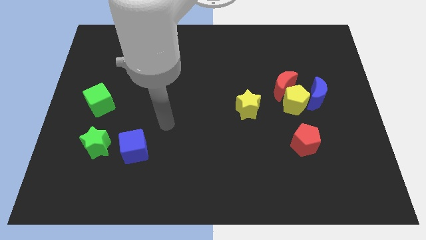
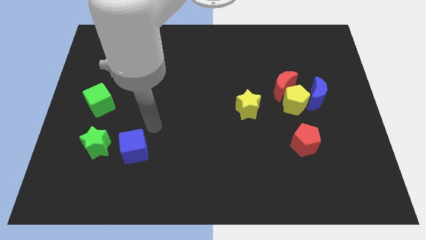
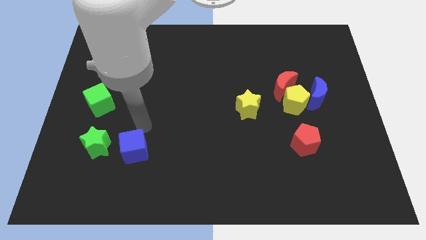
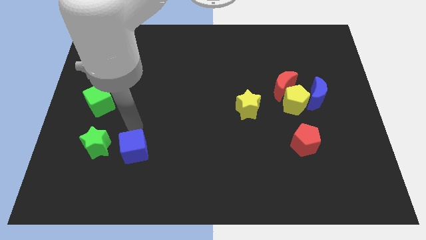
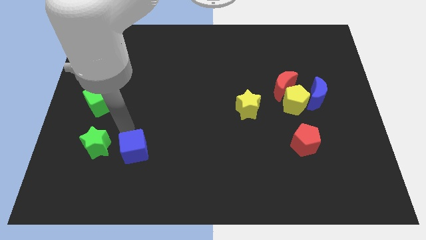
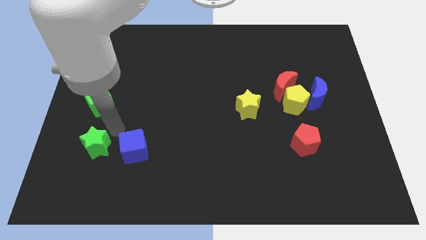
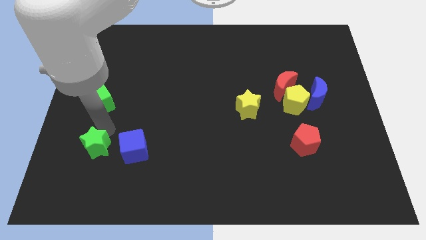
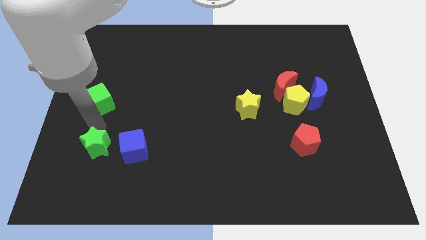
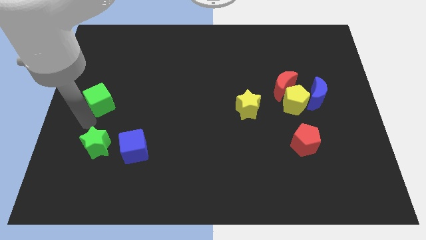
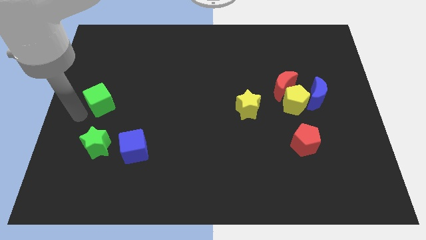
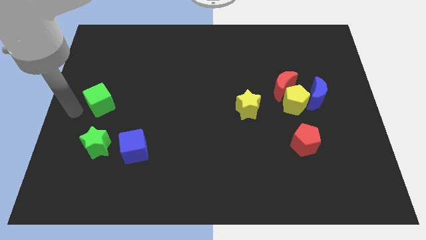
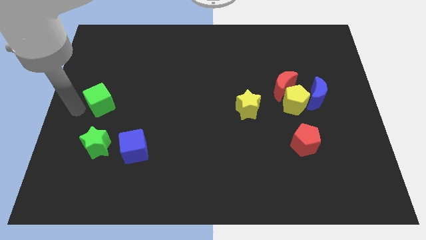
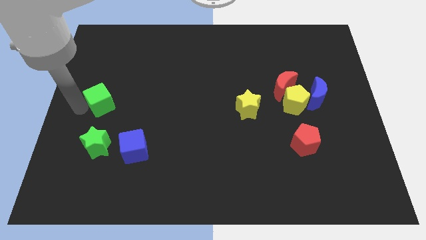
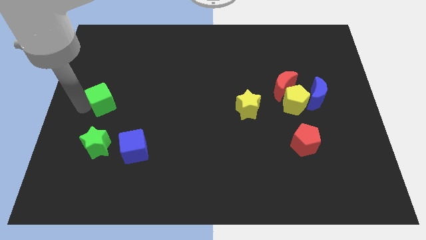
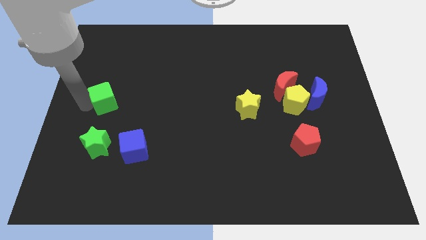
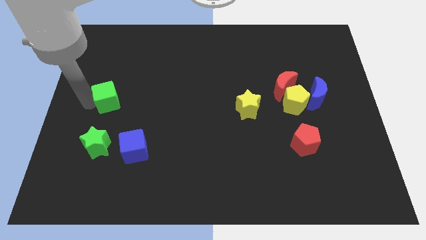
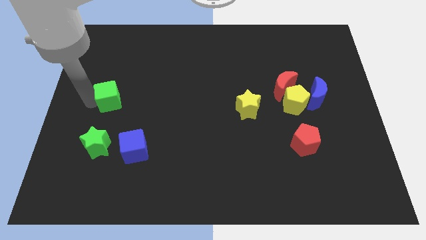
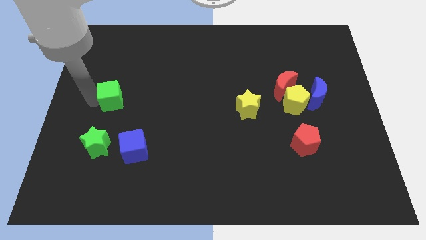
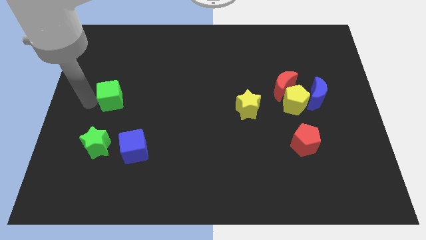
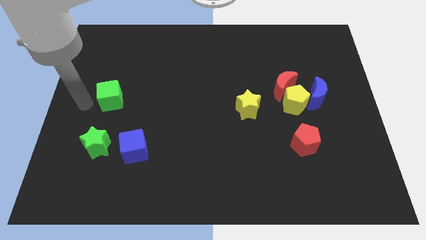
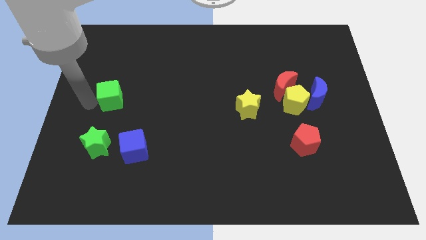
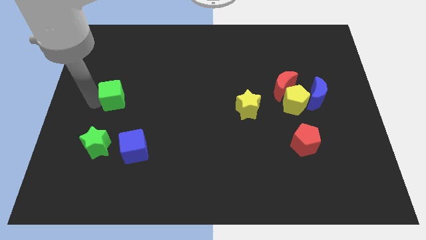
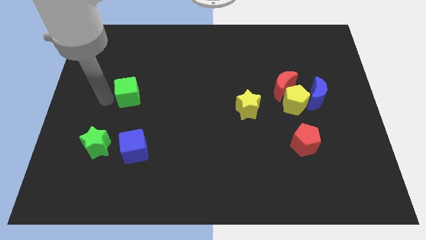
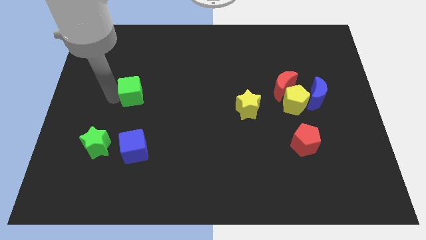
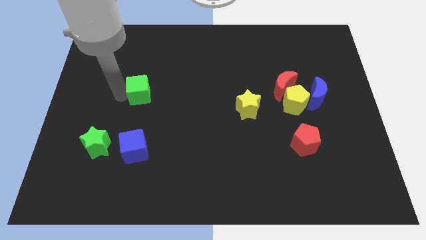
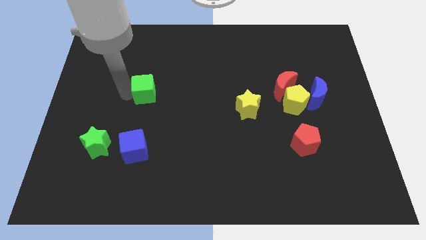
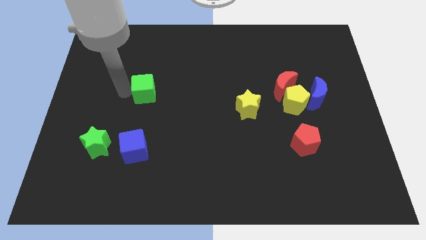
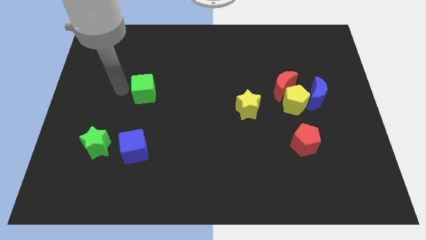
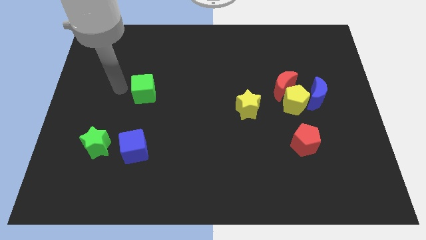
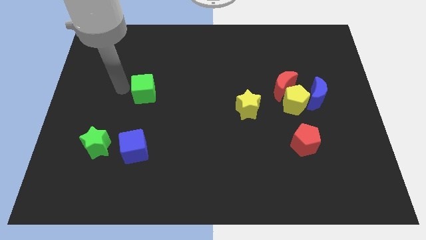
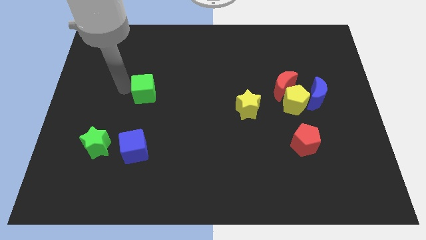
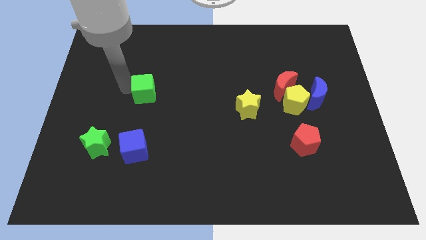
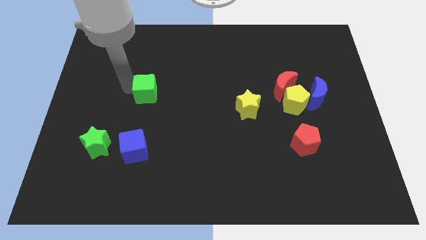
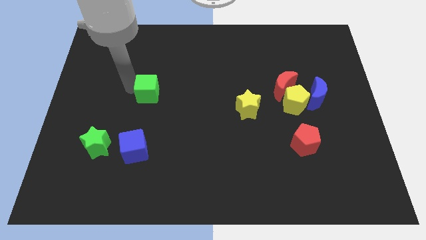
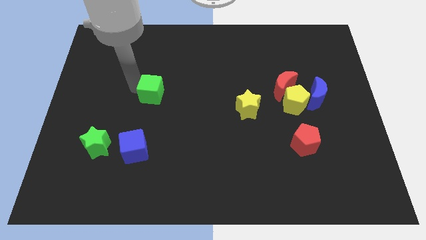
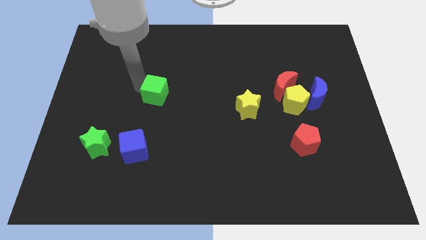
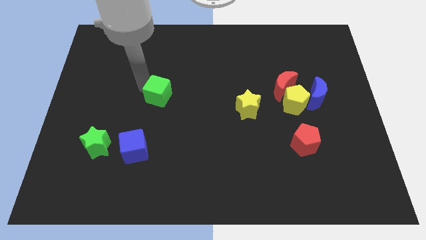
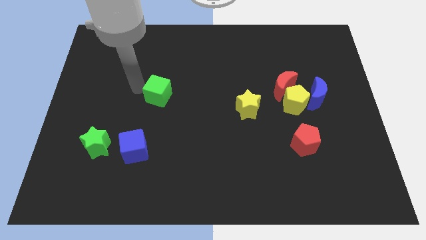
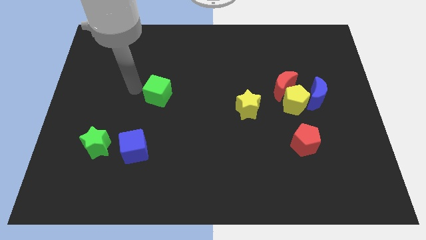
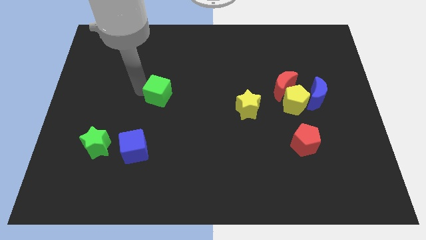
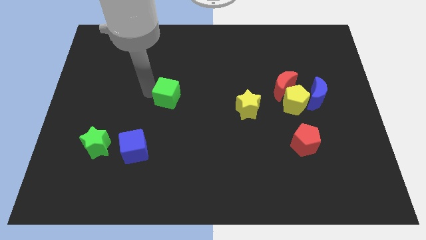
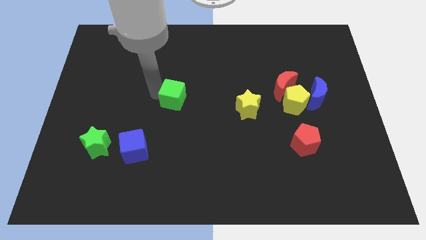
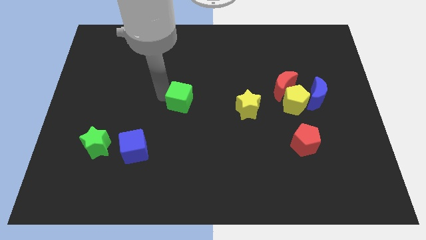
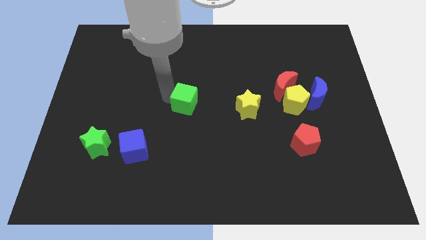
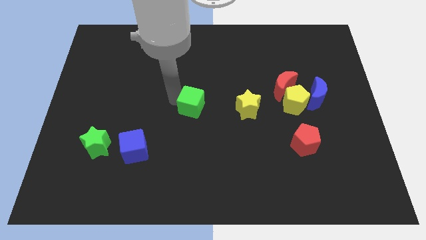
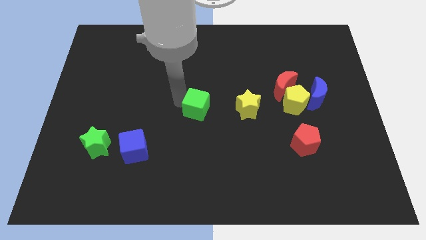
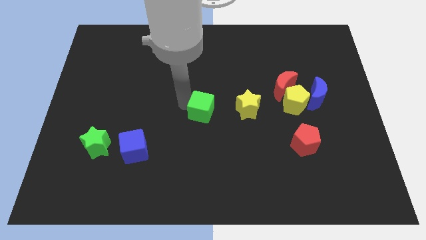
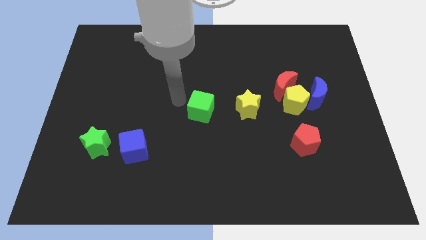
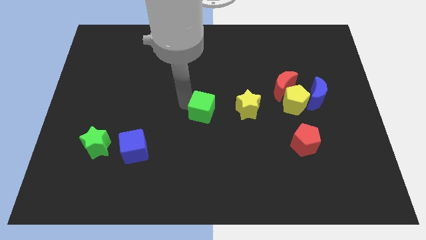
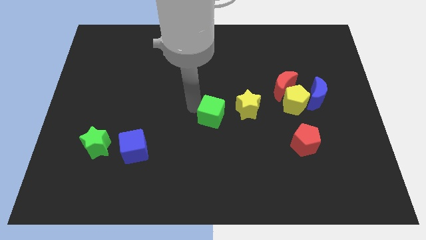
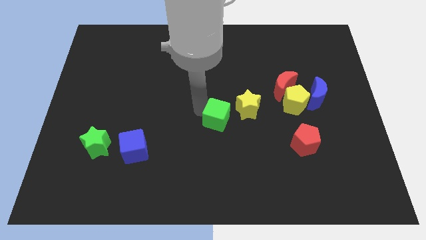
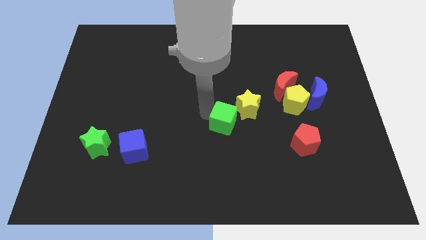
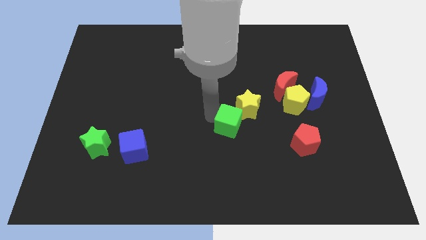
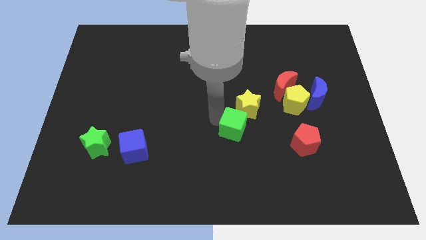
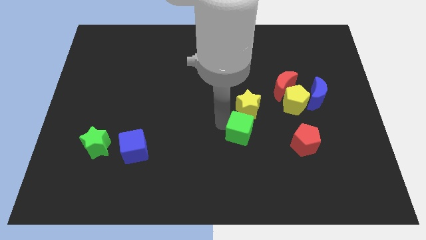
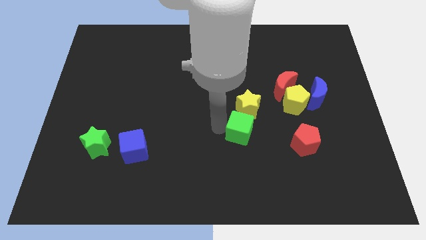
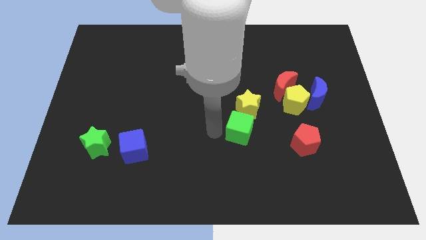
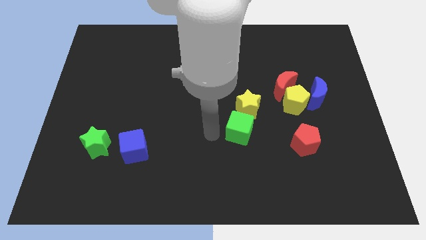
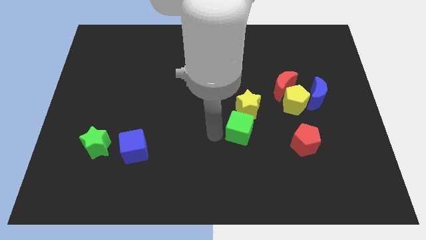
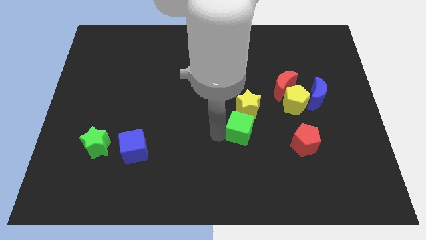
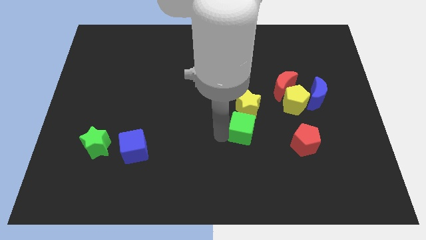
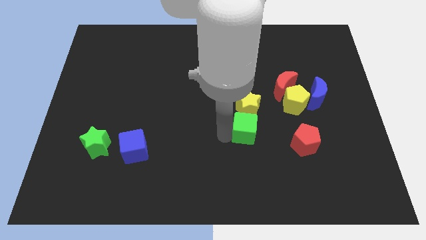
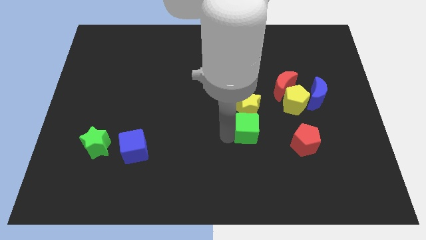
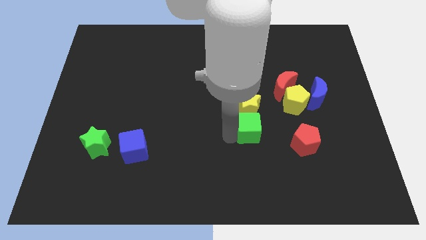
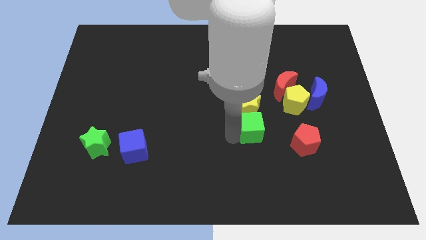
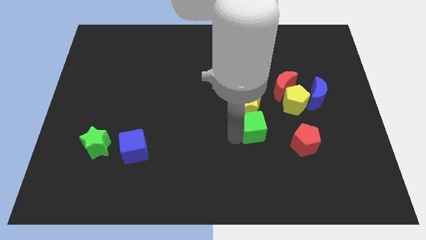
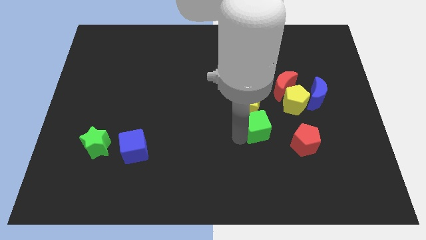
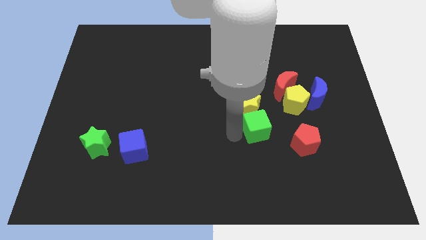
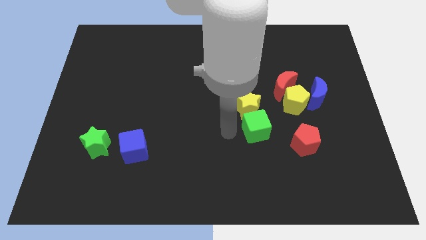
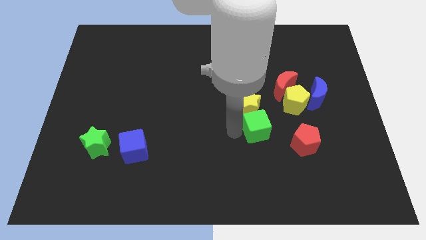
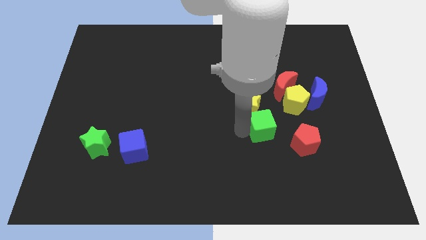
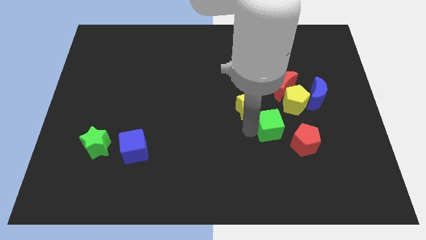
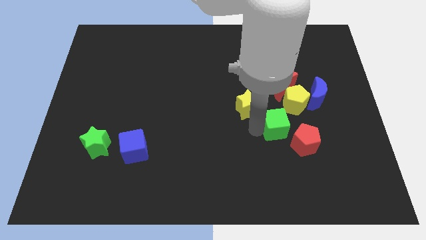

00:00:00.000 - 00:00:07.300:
slide the green cube to the right of the yellow star
